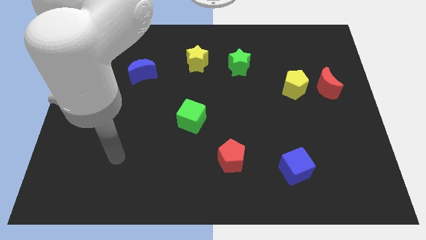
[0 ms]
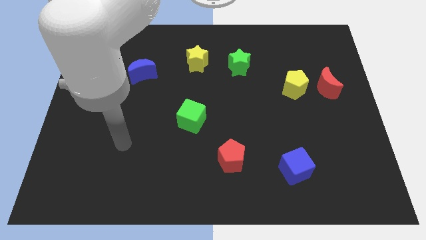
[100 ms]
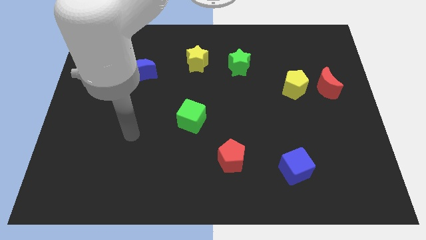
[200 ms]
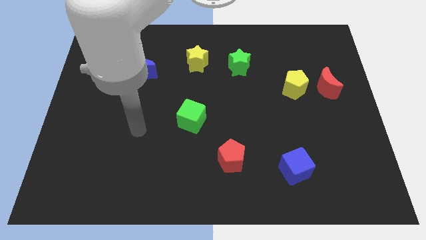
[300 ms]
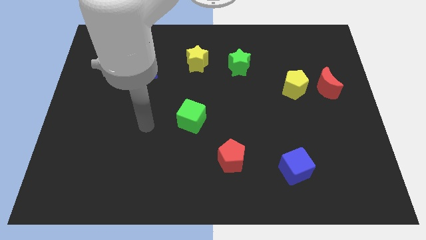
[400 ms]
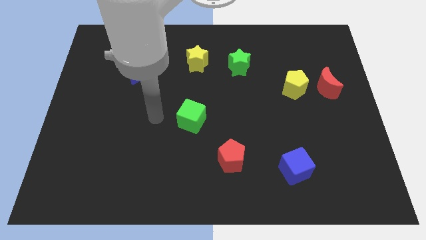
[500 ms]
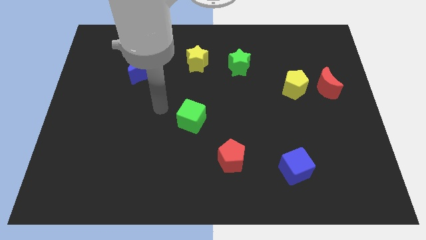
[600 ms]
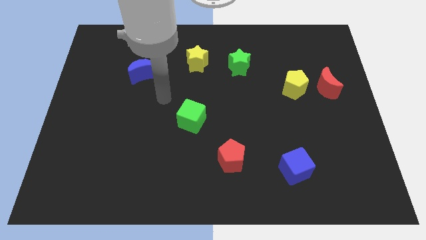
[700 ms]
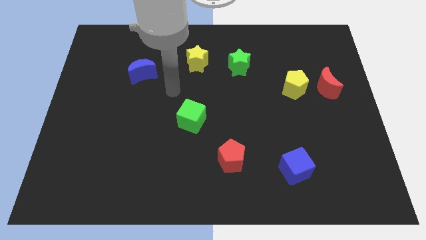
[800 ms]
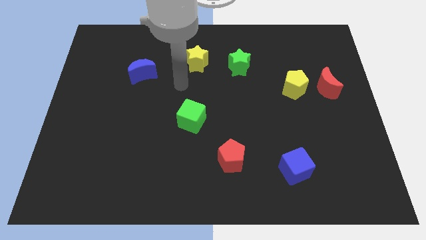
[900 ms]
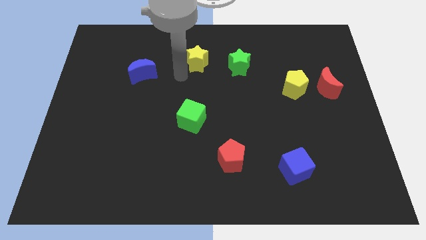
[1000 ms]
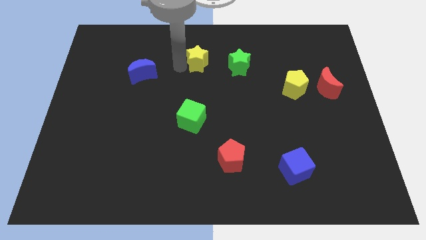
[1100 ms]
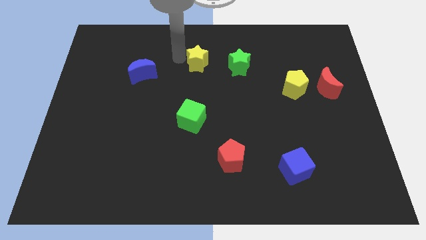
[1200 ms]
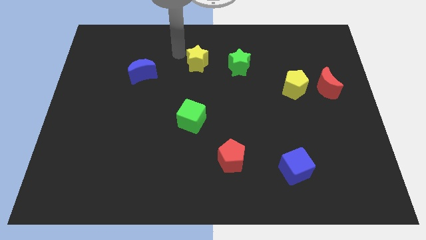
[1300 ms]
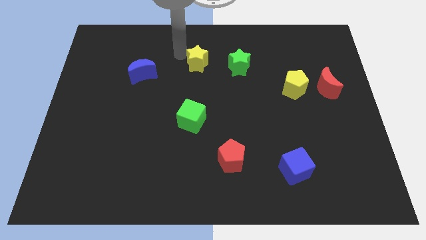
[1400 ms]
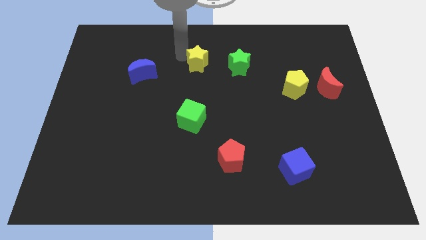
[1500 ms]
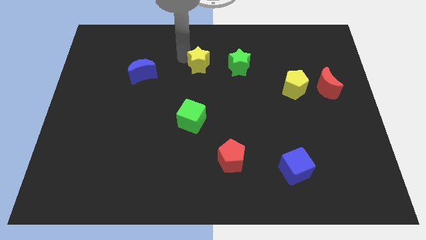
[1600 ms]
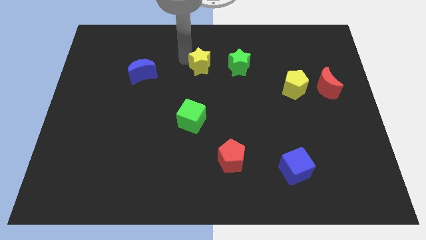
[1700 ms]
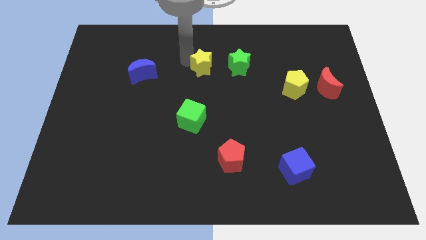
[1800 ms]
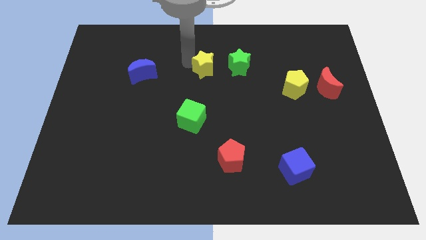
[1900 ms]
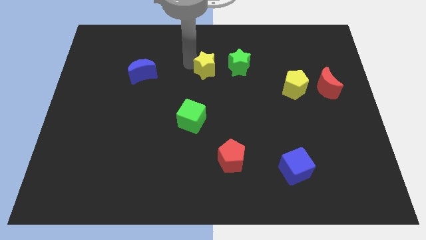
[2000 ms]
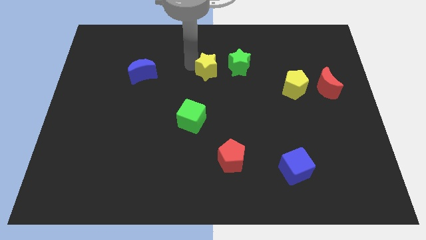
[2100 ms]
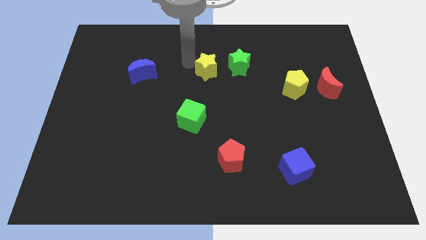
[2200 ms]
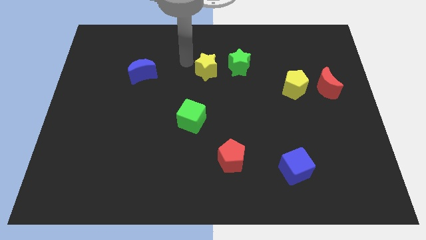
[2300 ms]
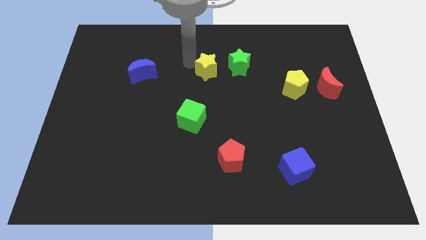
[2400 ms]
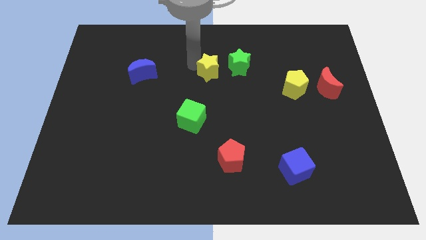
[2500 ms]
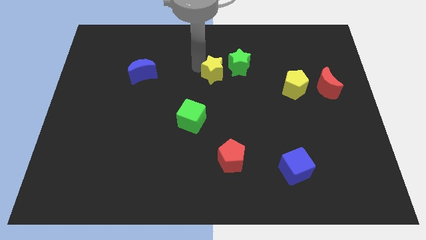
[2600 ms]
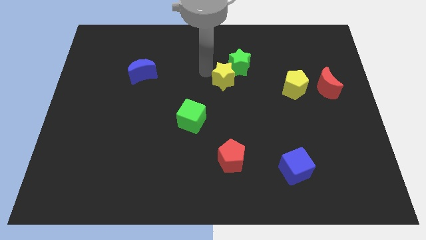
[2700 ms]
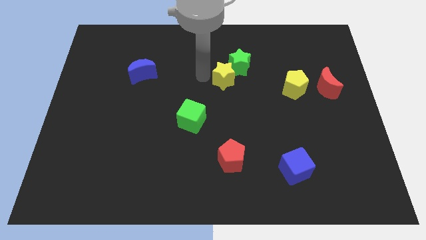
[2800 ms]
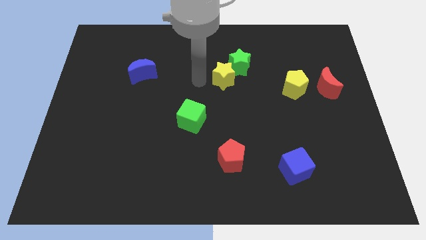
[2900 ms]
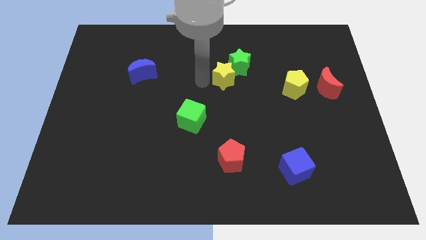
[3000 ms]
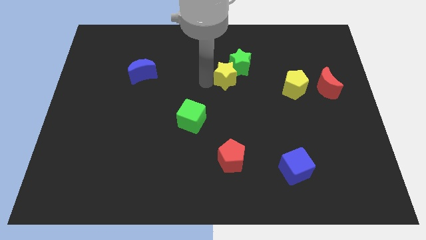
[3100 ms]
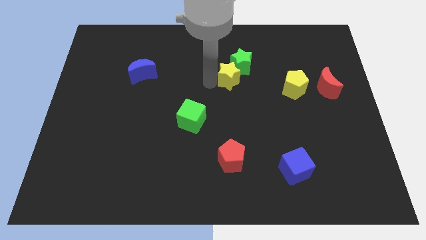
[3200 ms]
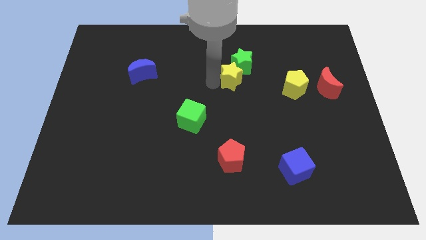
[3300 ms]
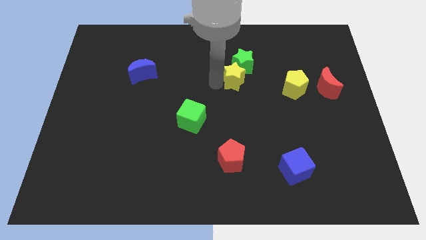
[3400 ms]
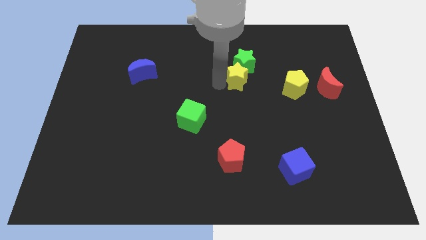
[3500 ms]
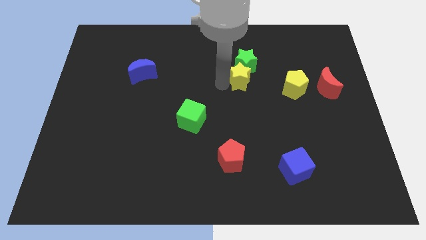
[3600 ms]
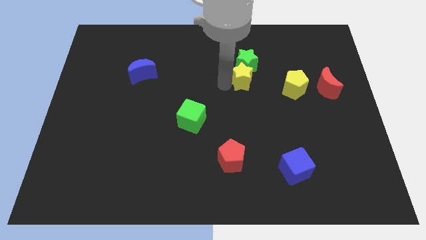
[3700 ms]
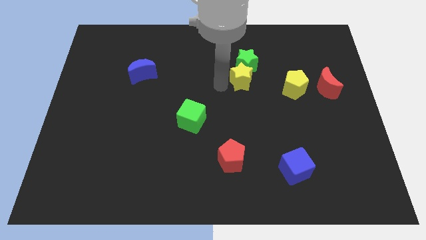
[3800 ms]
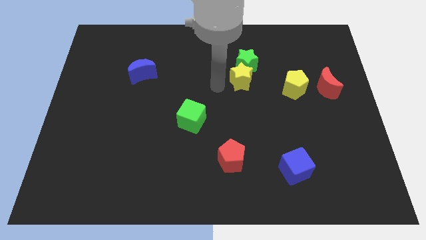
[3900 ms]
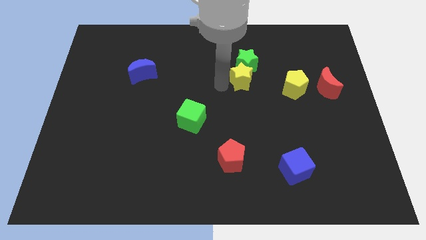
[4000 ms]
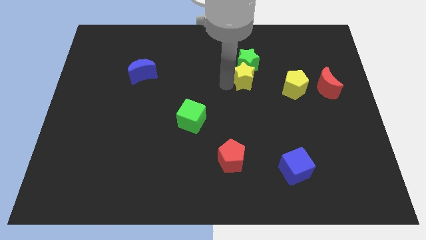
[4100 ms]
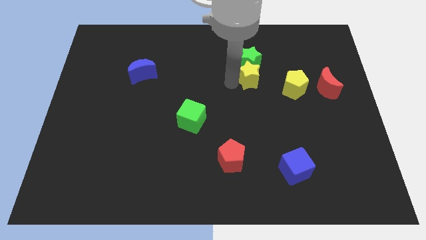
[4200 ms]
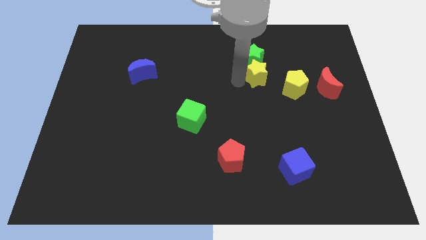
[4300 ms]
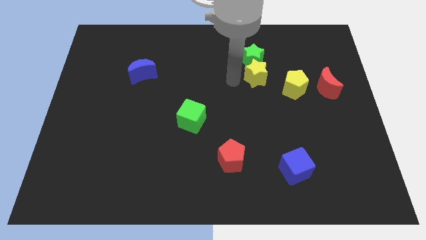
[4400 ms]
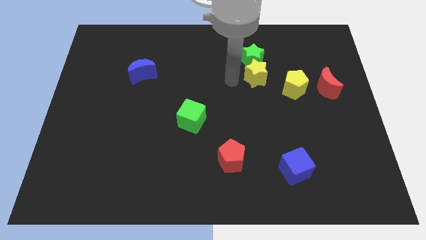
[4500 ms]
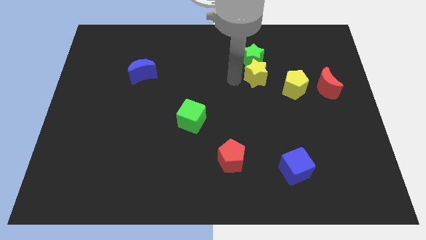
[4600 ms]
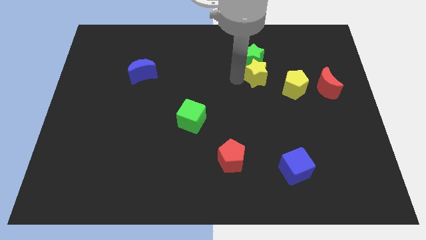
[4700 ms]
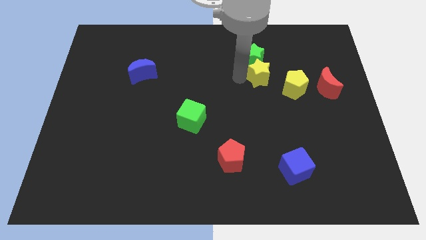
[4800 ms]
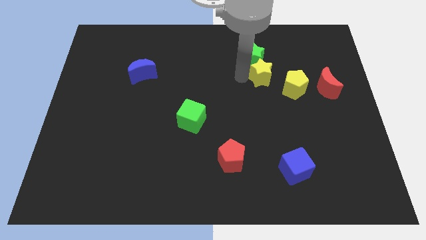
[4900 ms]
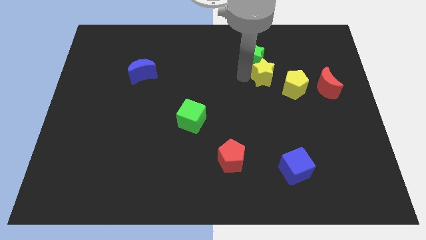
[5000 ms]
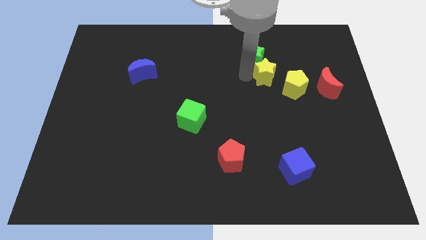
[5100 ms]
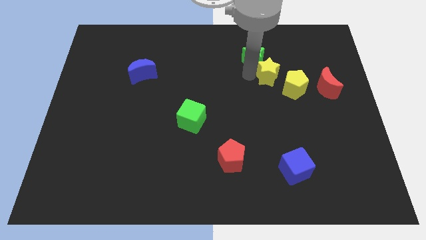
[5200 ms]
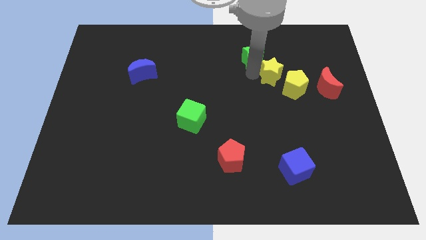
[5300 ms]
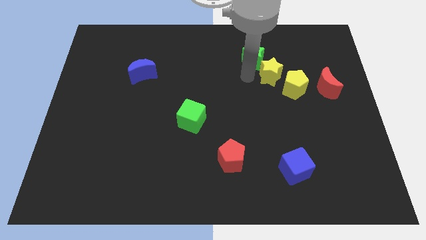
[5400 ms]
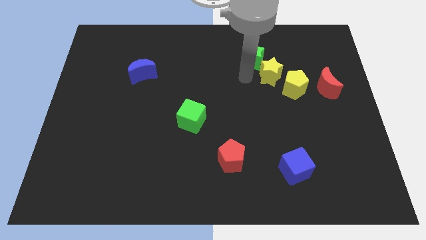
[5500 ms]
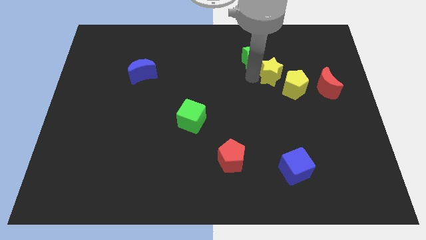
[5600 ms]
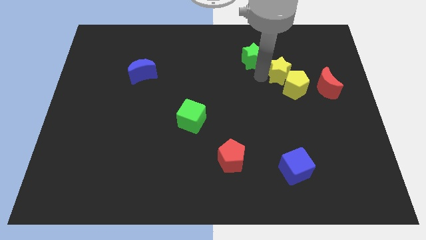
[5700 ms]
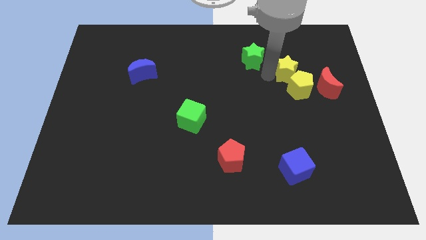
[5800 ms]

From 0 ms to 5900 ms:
push the yellow star to the top left of the red moon
